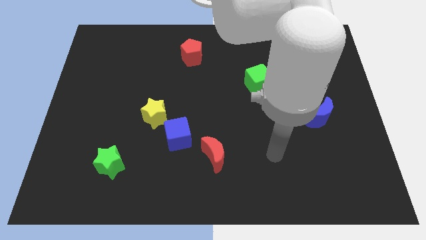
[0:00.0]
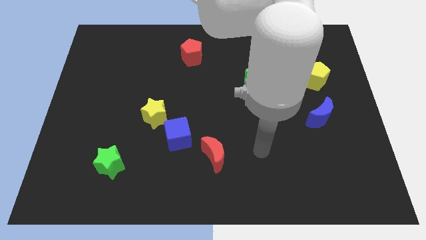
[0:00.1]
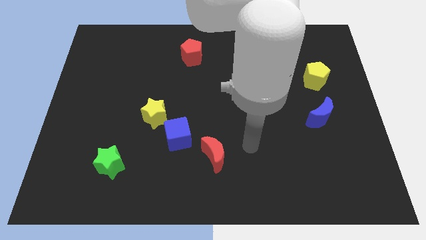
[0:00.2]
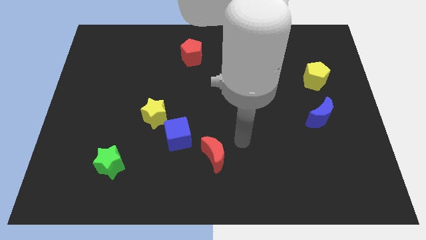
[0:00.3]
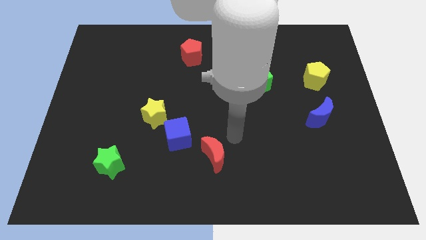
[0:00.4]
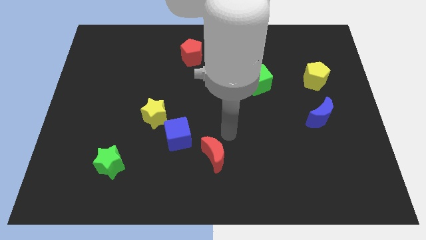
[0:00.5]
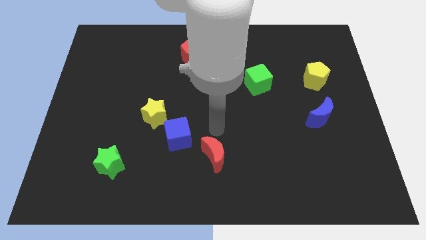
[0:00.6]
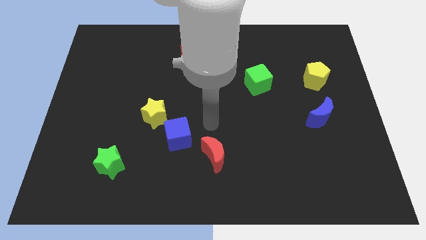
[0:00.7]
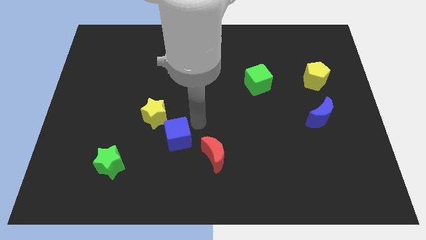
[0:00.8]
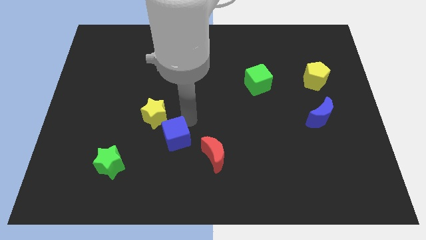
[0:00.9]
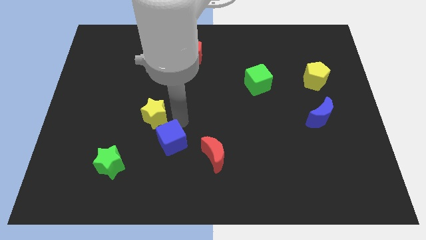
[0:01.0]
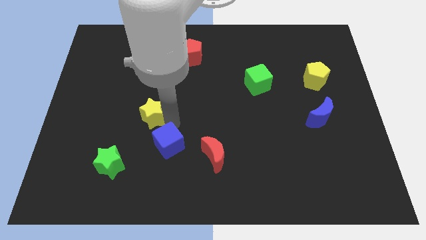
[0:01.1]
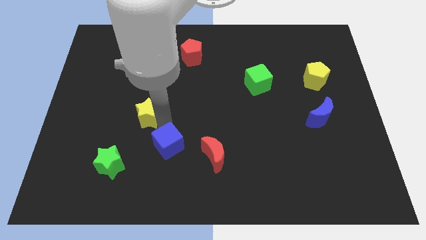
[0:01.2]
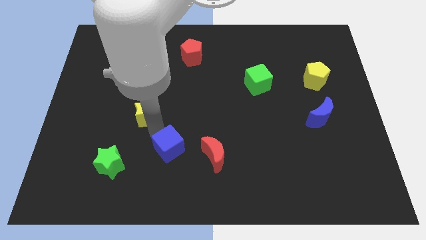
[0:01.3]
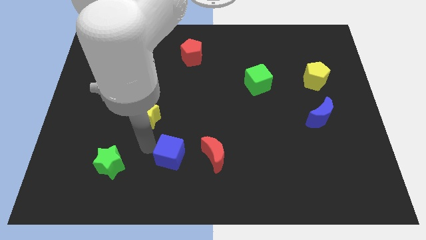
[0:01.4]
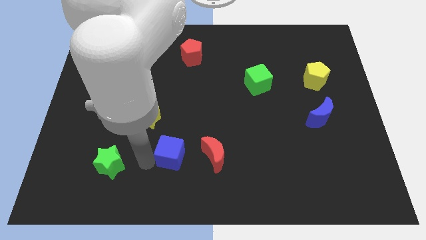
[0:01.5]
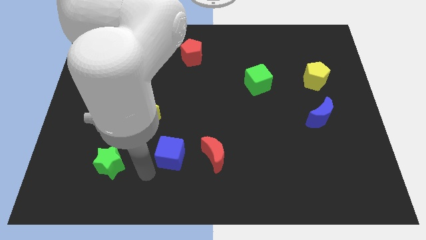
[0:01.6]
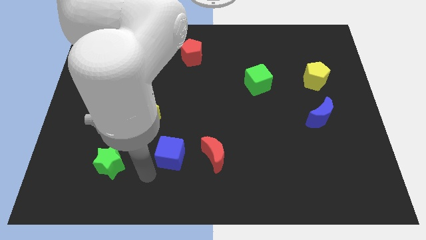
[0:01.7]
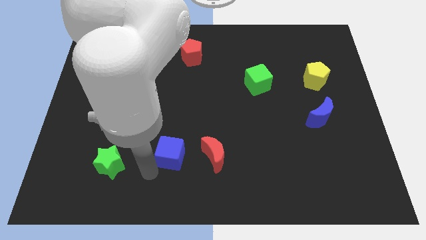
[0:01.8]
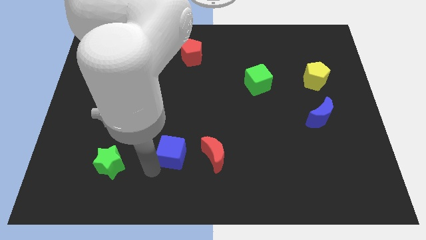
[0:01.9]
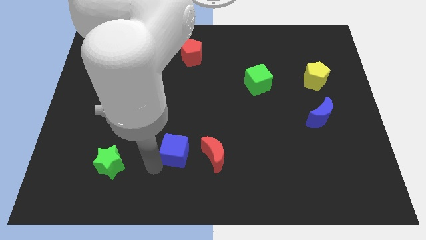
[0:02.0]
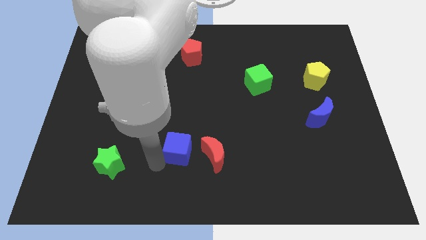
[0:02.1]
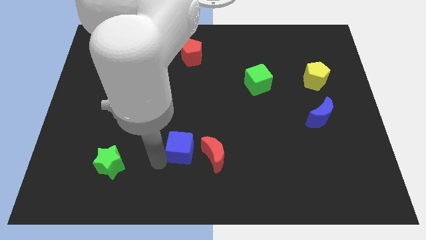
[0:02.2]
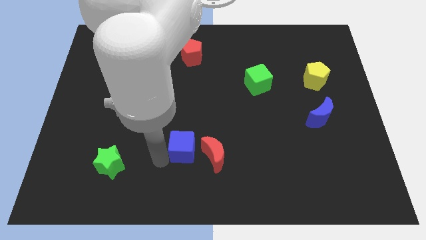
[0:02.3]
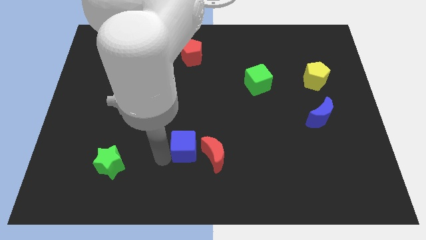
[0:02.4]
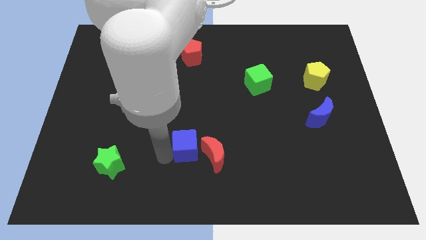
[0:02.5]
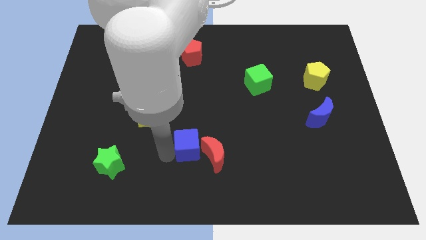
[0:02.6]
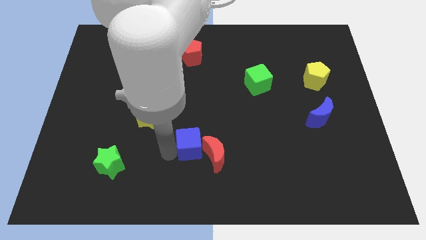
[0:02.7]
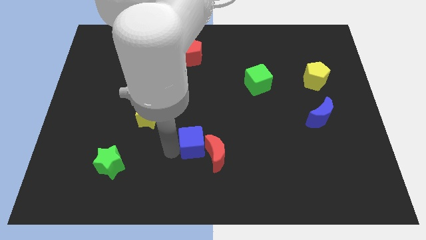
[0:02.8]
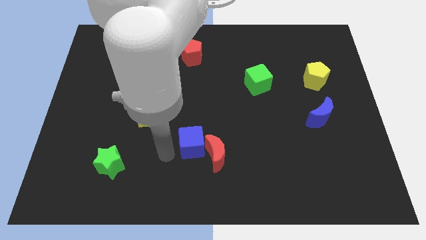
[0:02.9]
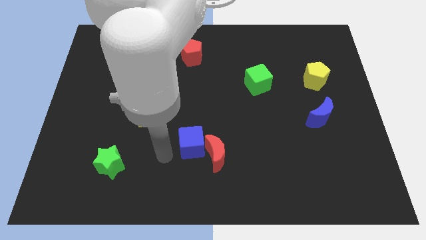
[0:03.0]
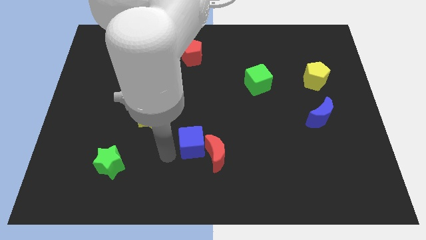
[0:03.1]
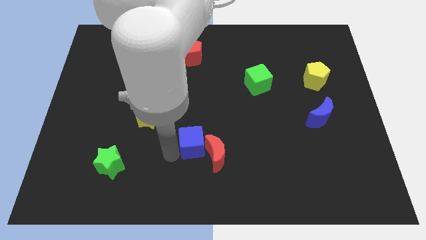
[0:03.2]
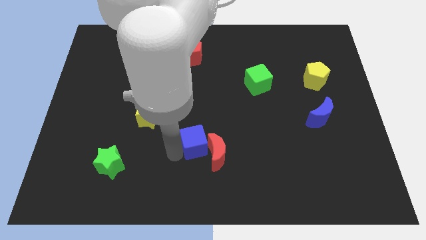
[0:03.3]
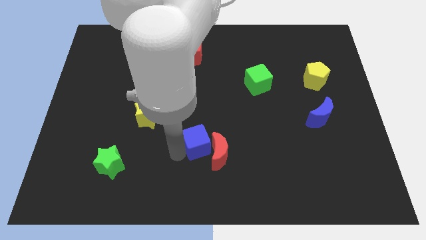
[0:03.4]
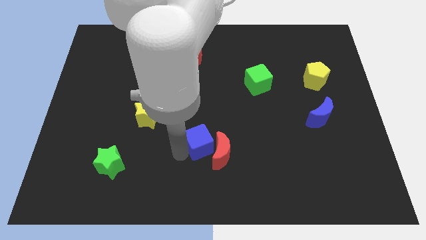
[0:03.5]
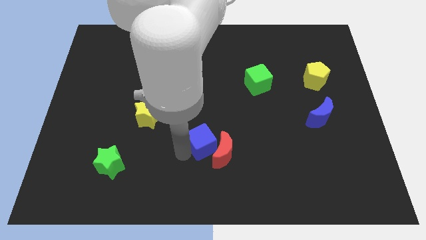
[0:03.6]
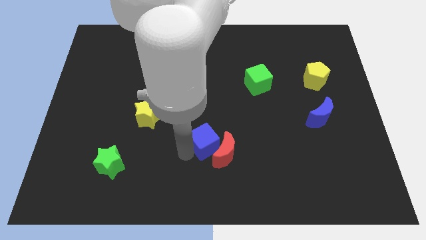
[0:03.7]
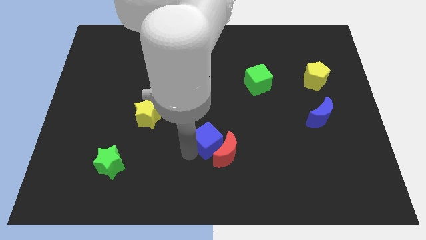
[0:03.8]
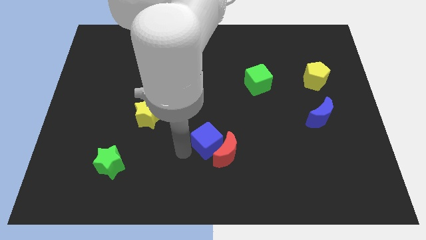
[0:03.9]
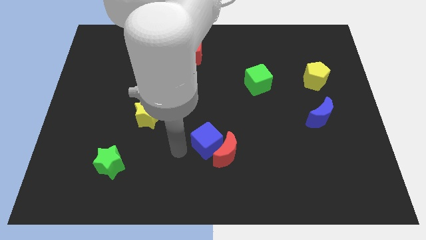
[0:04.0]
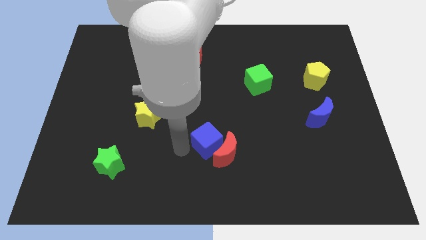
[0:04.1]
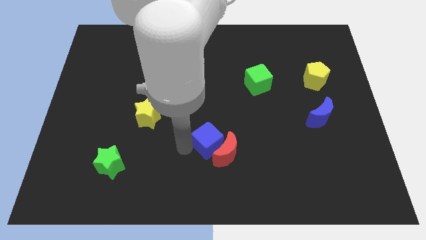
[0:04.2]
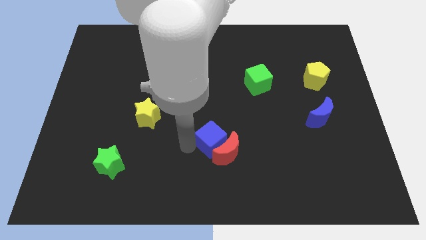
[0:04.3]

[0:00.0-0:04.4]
slightly slide the blue cube to the right

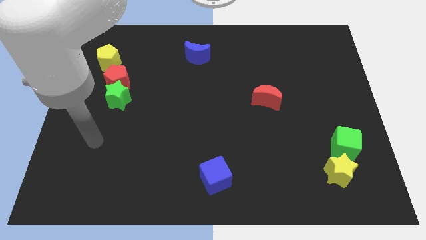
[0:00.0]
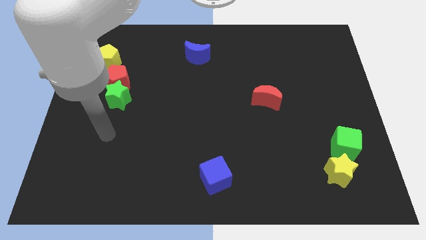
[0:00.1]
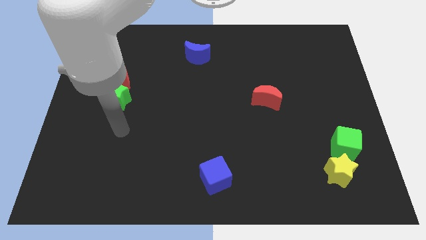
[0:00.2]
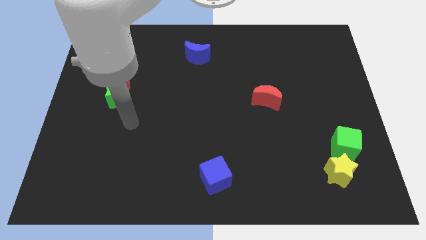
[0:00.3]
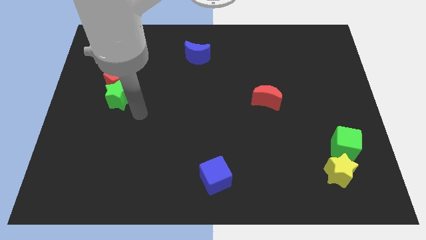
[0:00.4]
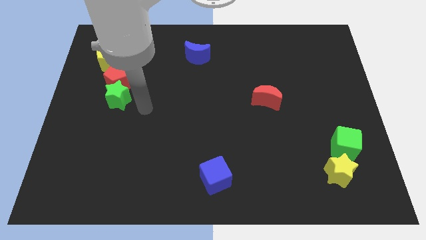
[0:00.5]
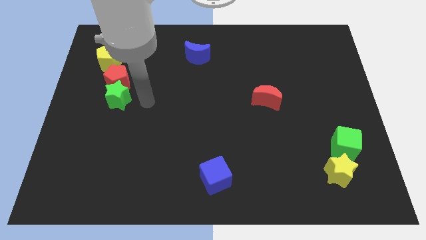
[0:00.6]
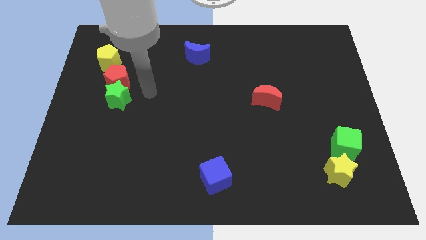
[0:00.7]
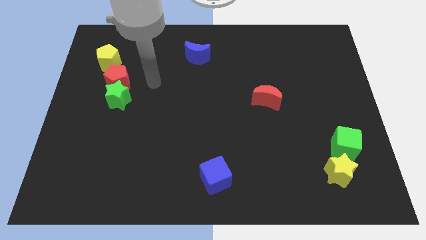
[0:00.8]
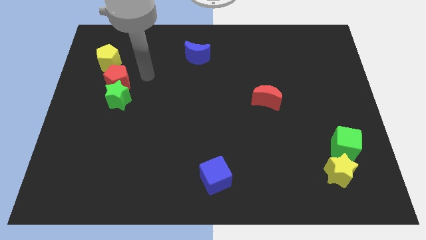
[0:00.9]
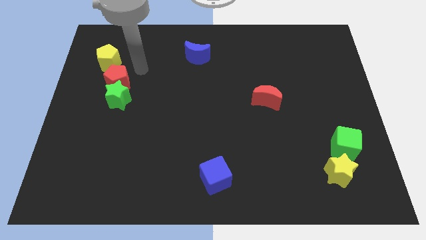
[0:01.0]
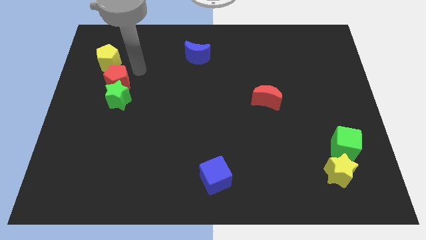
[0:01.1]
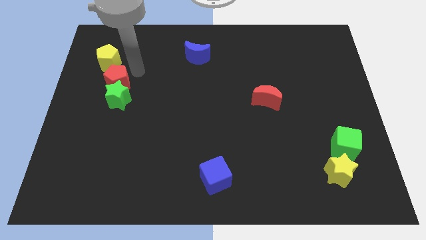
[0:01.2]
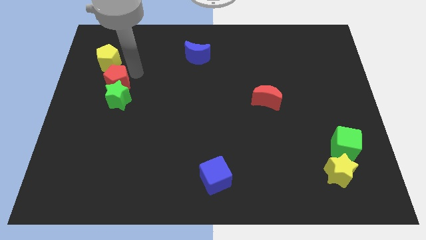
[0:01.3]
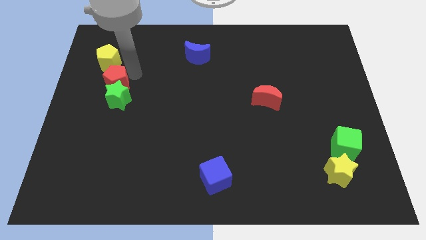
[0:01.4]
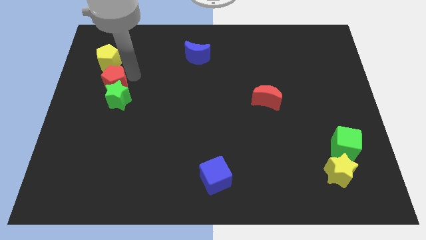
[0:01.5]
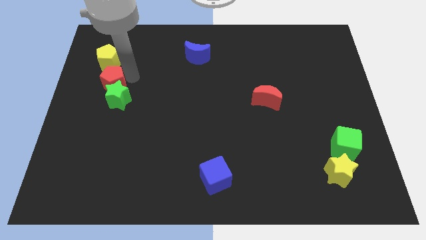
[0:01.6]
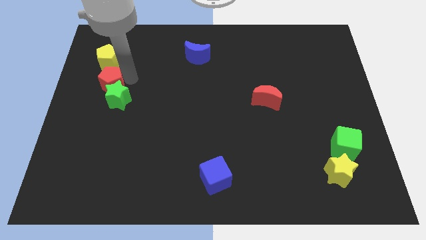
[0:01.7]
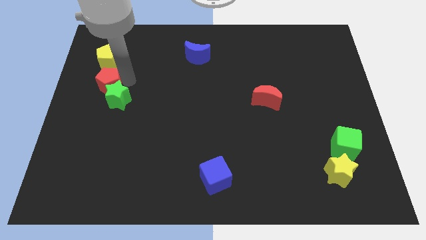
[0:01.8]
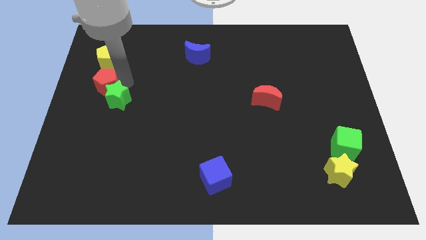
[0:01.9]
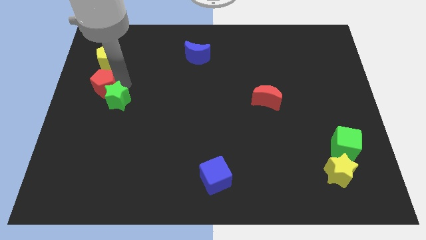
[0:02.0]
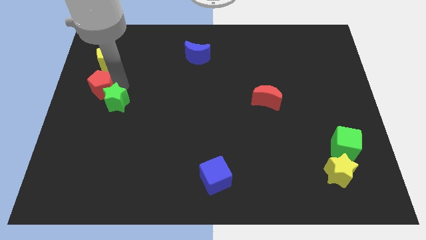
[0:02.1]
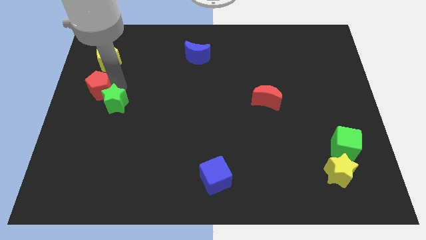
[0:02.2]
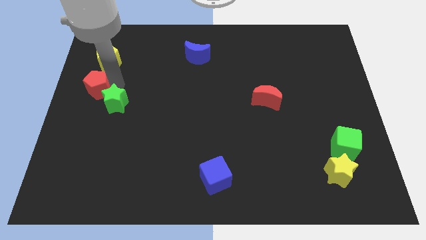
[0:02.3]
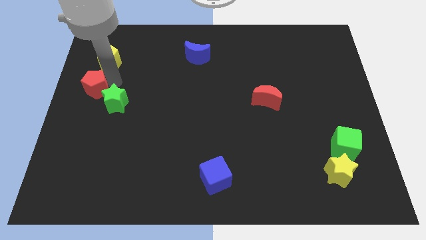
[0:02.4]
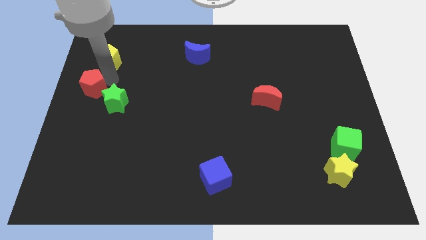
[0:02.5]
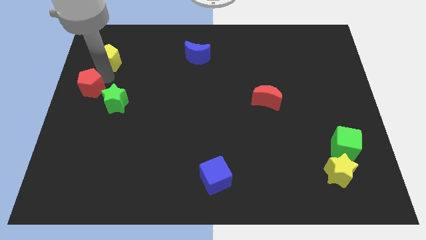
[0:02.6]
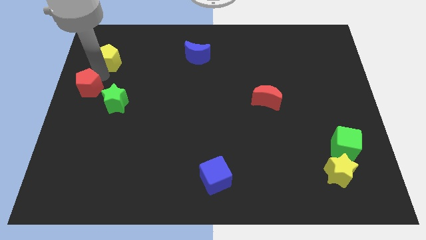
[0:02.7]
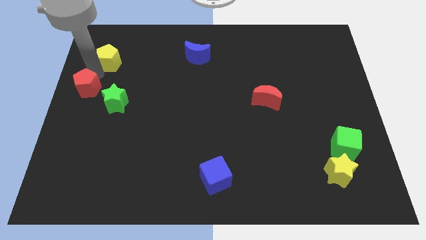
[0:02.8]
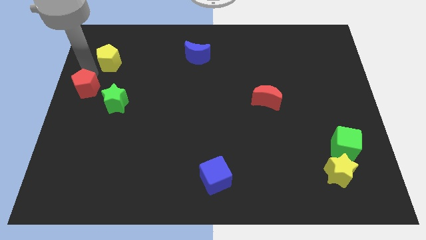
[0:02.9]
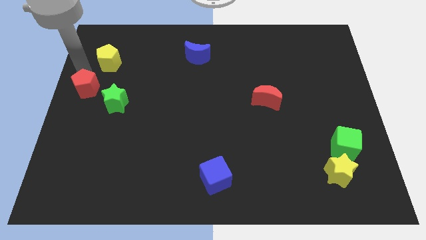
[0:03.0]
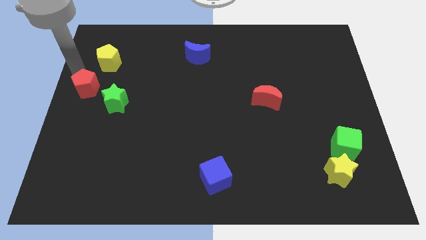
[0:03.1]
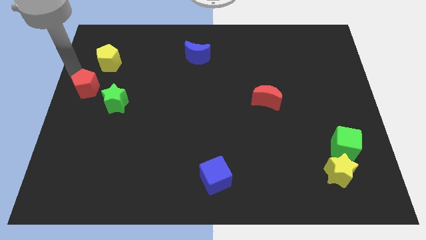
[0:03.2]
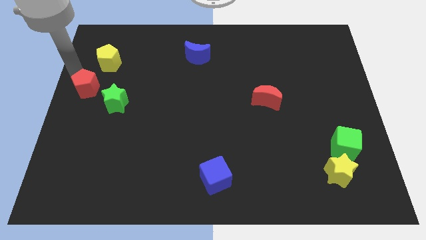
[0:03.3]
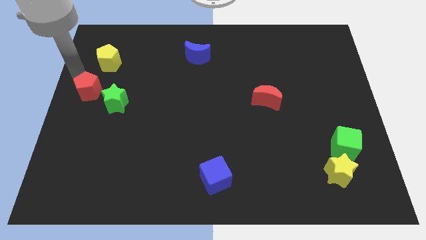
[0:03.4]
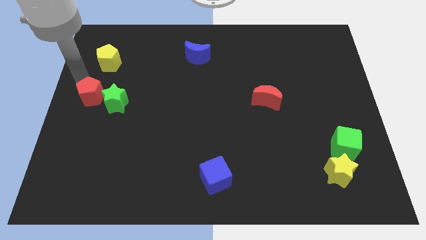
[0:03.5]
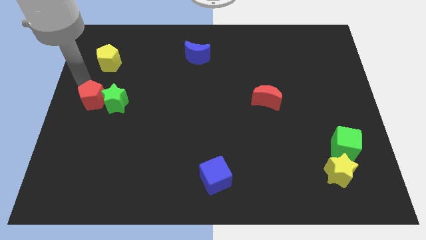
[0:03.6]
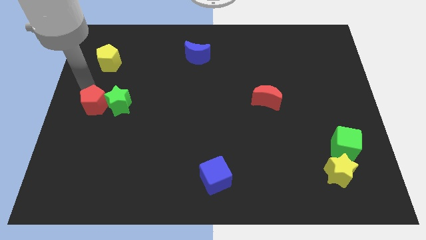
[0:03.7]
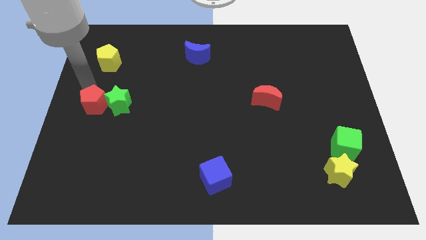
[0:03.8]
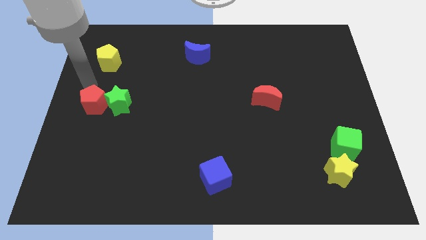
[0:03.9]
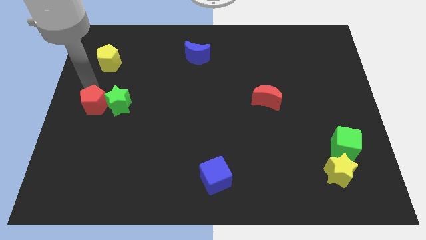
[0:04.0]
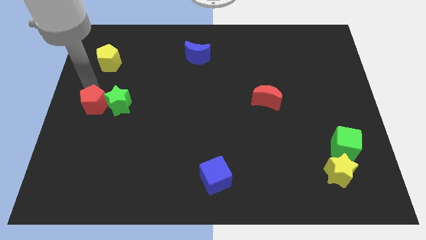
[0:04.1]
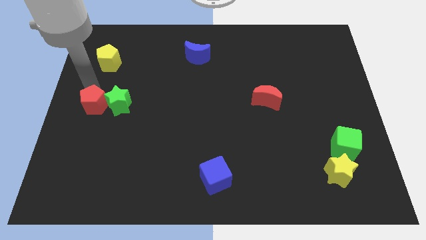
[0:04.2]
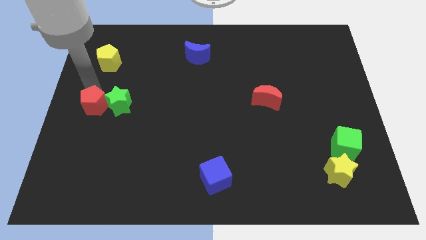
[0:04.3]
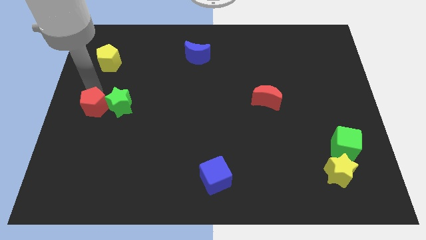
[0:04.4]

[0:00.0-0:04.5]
slightly move the red pentagon down
